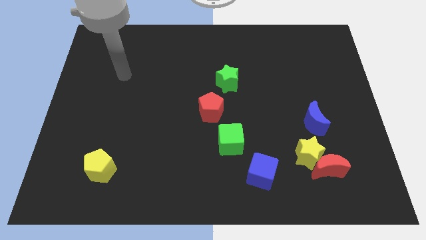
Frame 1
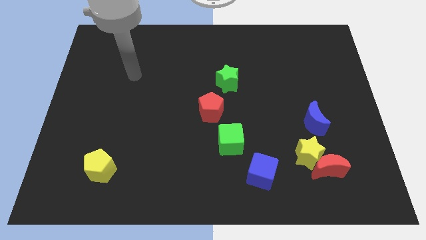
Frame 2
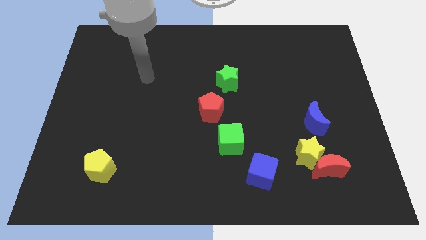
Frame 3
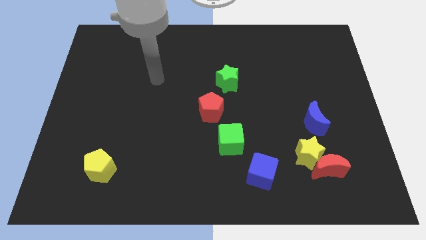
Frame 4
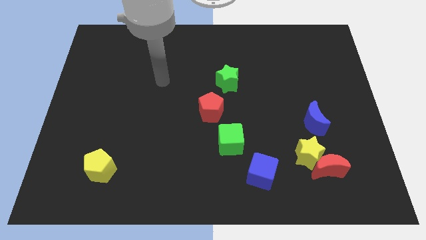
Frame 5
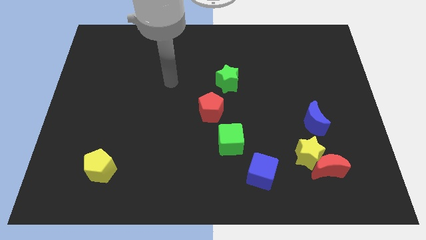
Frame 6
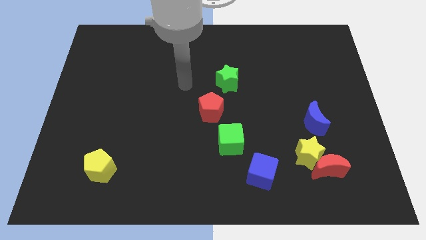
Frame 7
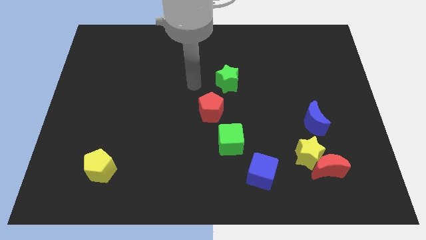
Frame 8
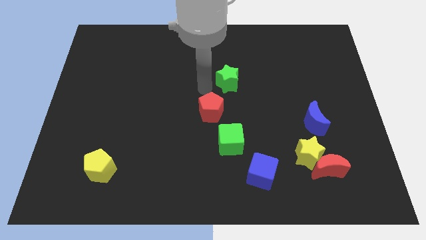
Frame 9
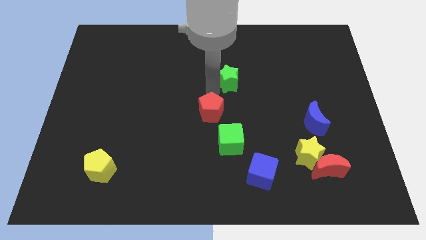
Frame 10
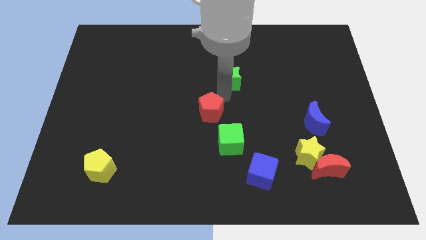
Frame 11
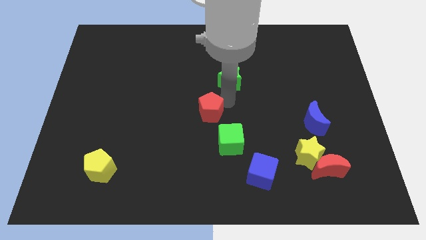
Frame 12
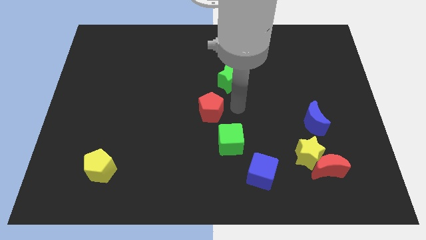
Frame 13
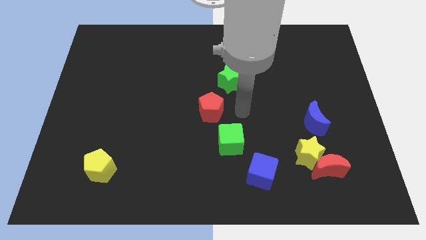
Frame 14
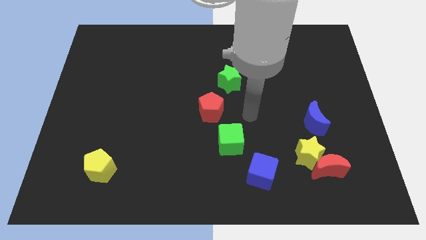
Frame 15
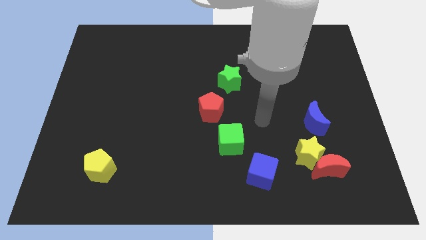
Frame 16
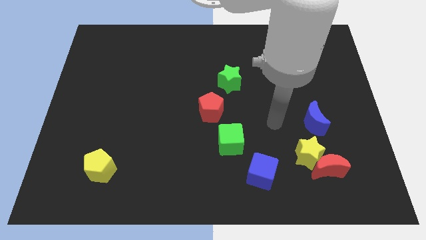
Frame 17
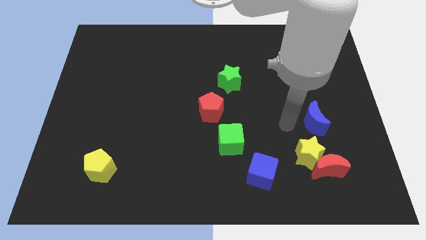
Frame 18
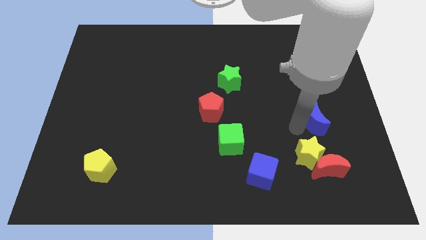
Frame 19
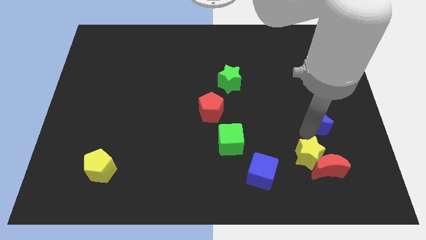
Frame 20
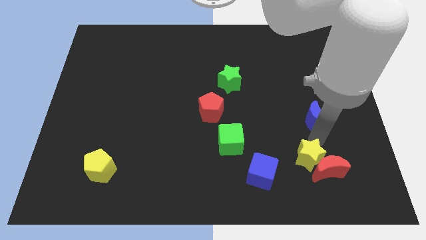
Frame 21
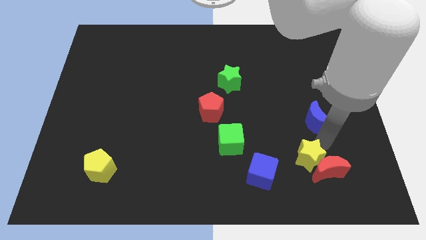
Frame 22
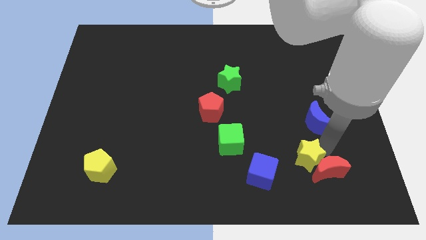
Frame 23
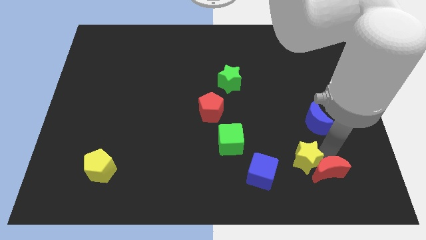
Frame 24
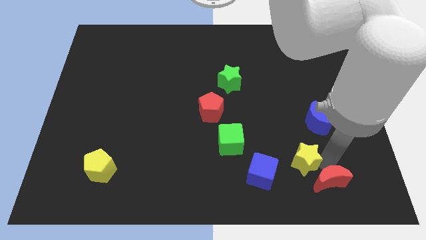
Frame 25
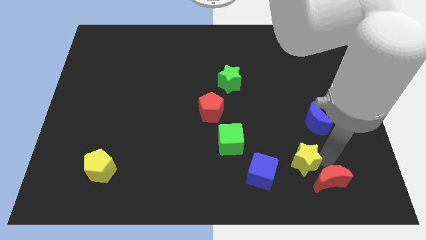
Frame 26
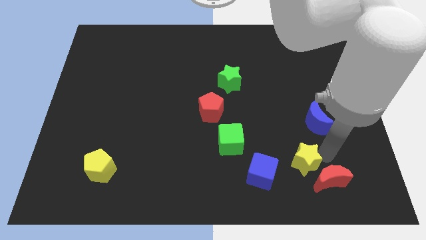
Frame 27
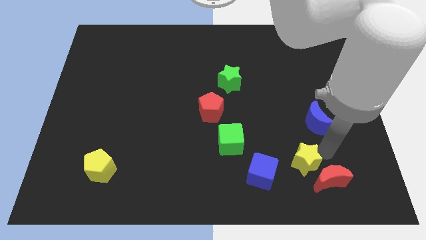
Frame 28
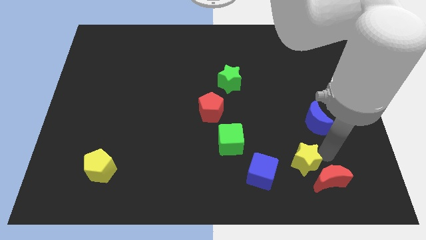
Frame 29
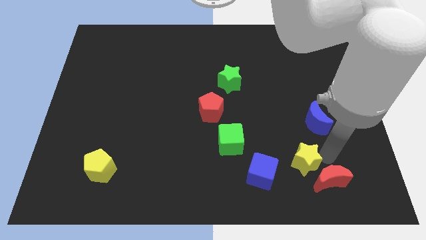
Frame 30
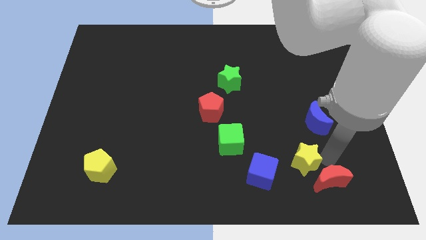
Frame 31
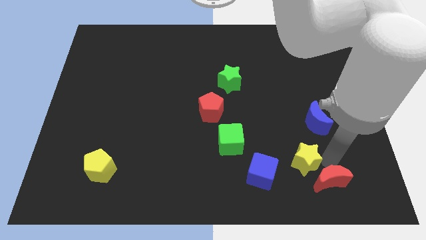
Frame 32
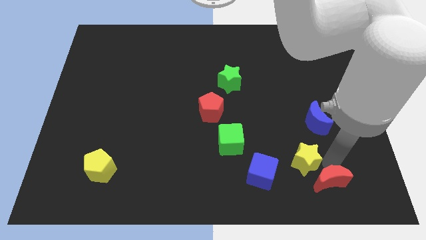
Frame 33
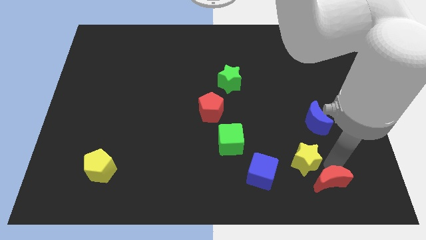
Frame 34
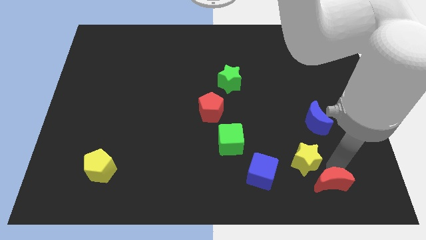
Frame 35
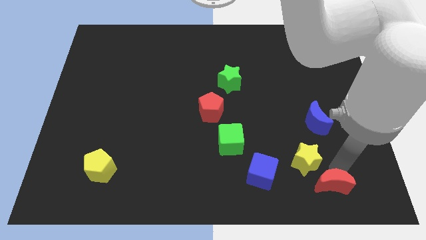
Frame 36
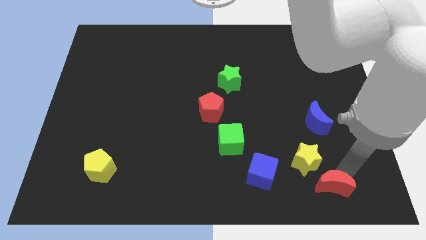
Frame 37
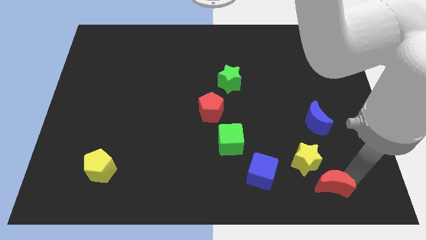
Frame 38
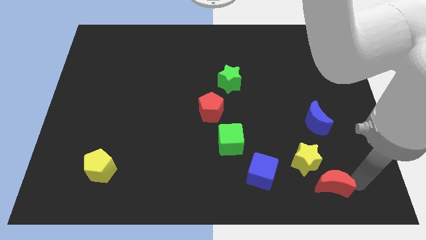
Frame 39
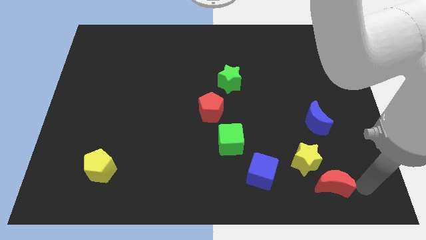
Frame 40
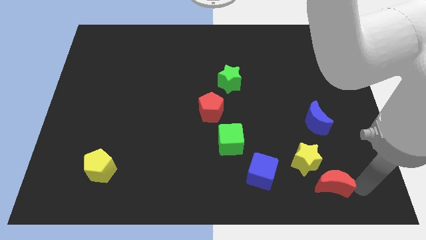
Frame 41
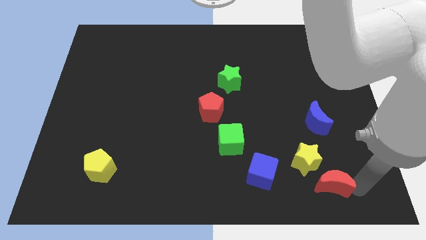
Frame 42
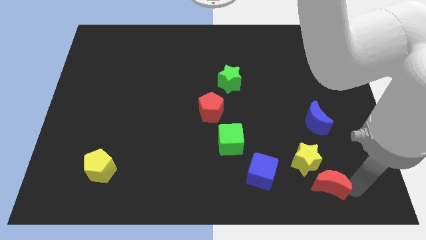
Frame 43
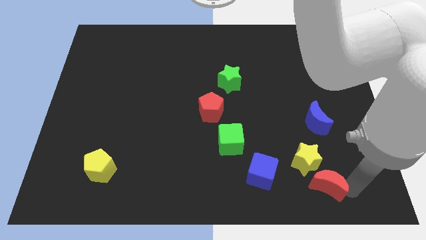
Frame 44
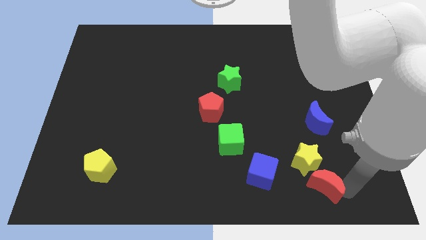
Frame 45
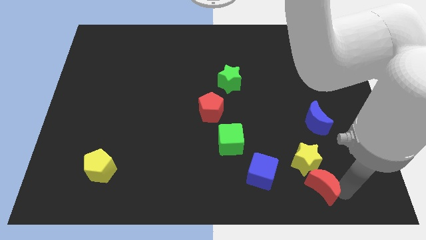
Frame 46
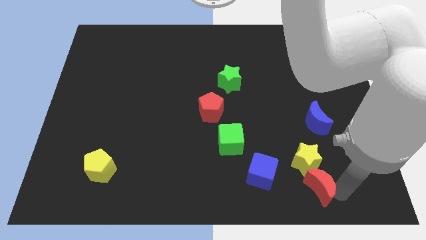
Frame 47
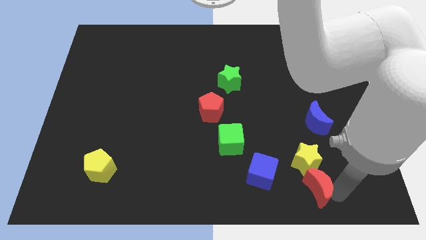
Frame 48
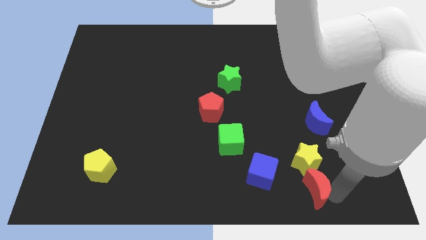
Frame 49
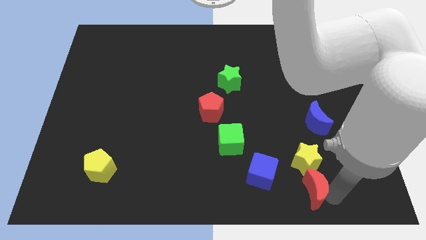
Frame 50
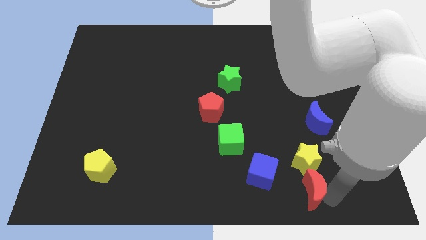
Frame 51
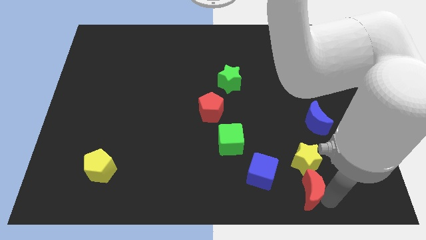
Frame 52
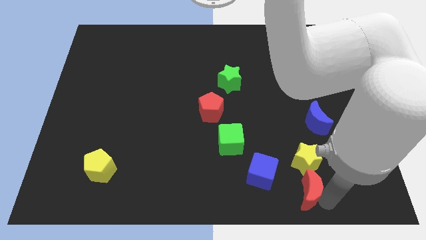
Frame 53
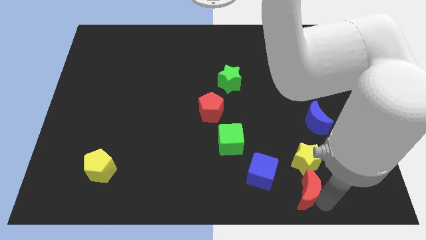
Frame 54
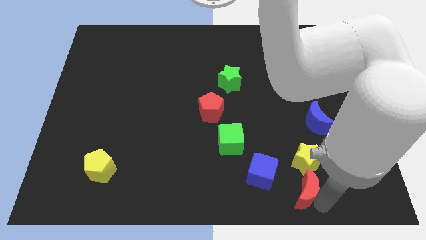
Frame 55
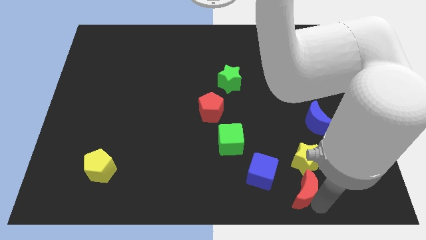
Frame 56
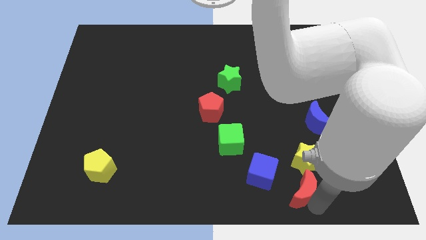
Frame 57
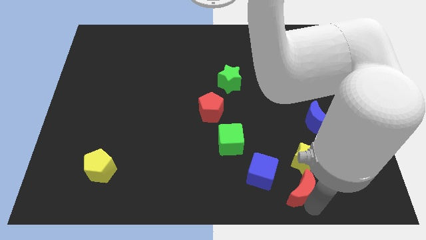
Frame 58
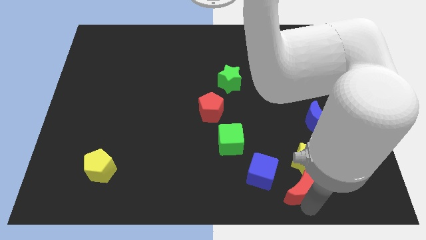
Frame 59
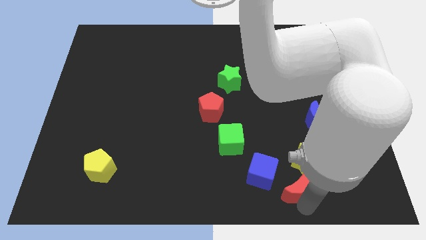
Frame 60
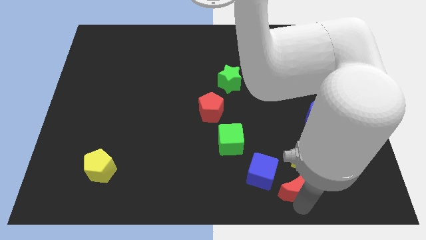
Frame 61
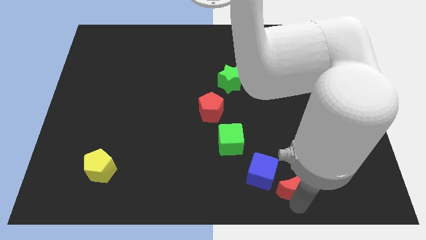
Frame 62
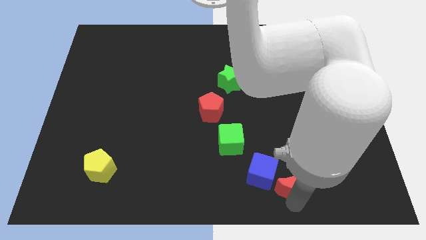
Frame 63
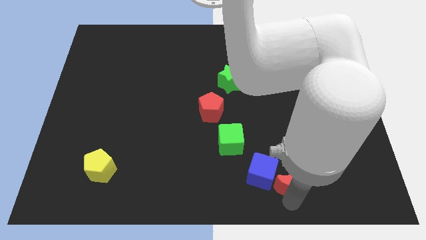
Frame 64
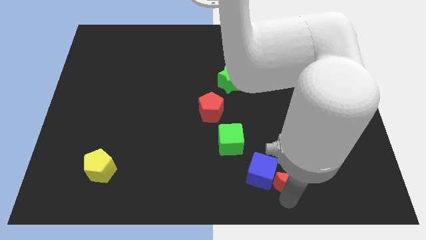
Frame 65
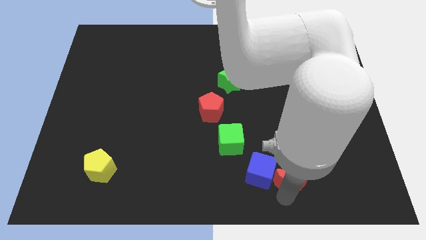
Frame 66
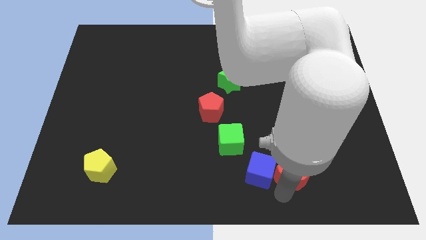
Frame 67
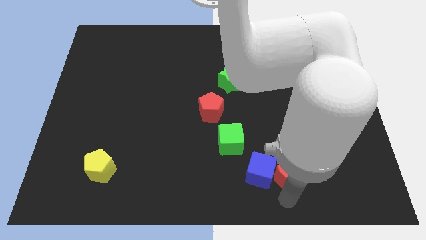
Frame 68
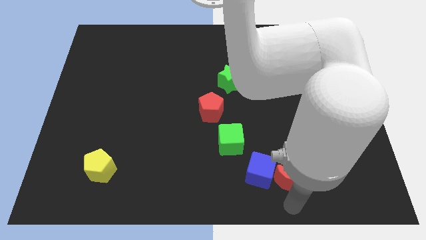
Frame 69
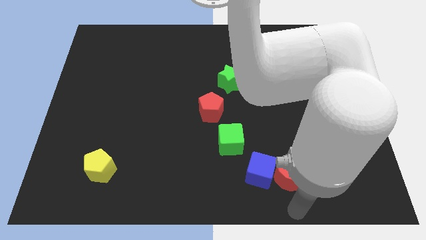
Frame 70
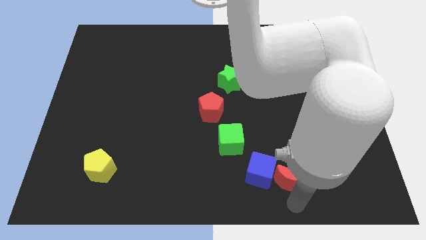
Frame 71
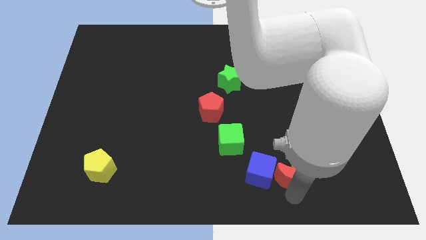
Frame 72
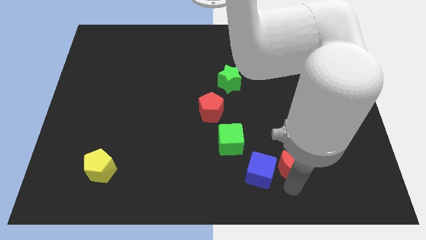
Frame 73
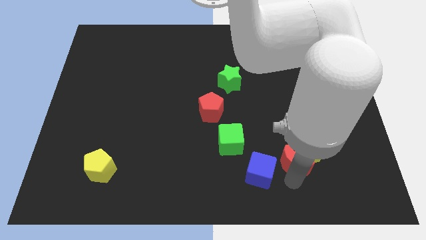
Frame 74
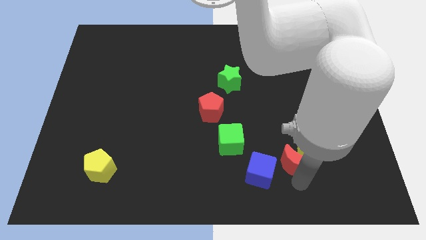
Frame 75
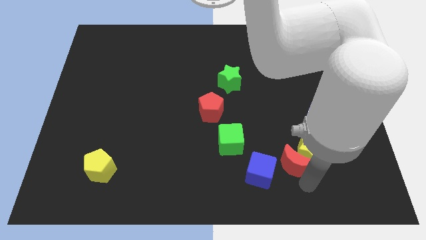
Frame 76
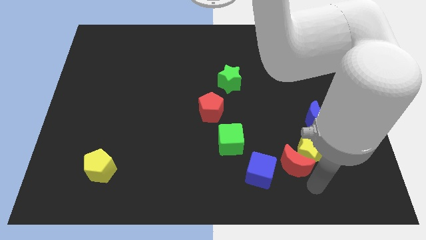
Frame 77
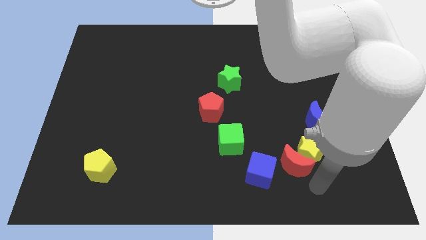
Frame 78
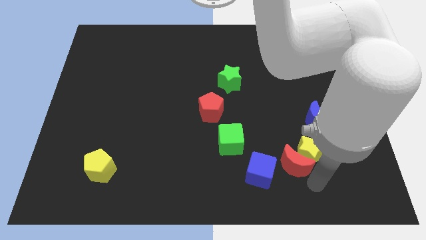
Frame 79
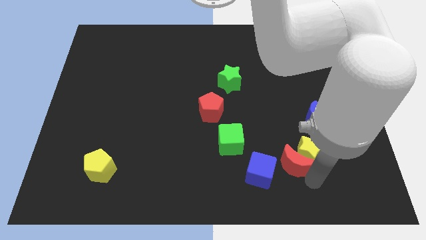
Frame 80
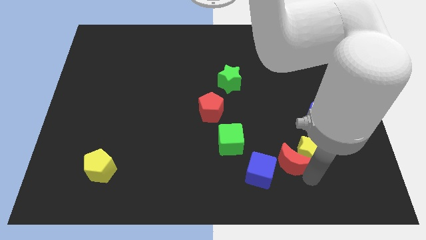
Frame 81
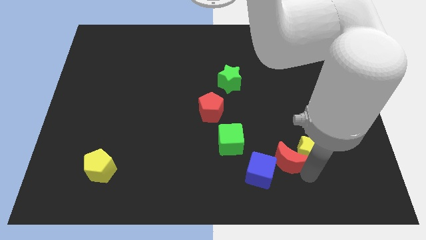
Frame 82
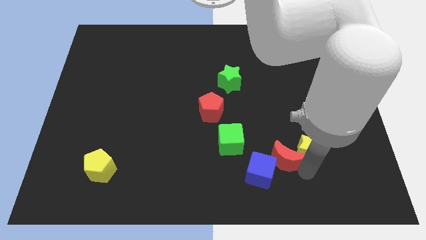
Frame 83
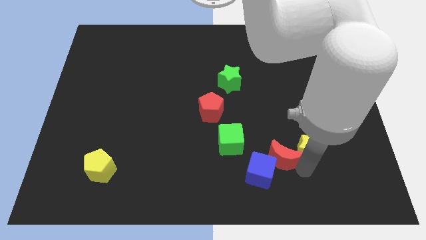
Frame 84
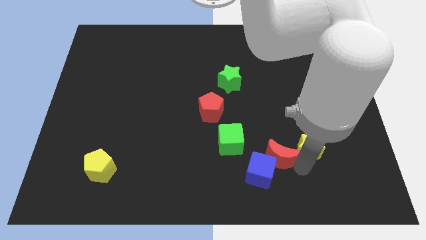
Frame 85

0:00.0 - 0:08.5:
move the red moon to the top side of the blue cube

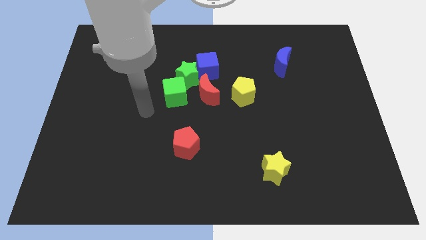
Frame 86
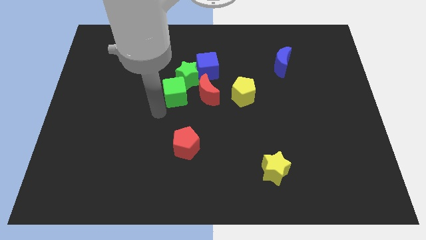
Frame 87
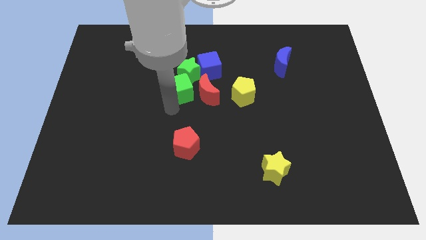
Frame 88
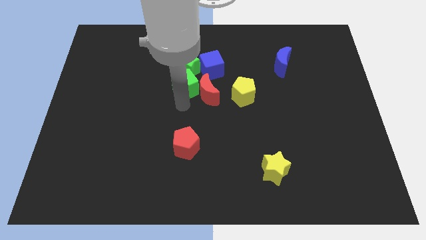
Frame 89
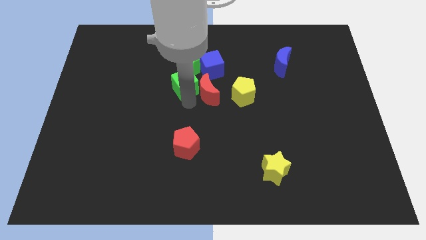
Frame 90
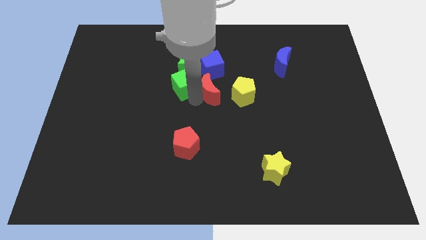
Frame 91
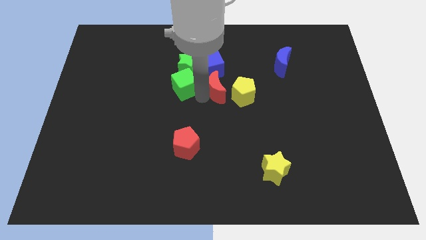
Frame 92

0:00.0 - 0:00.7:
slide the red moon to the bottom right of the blue cube
